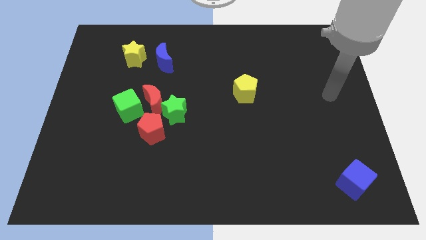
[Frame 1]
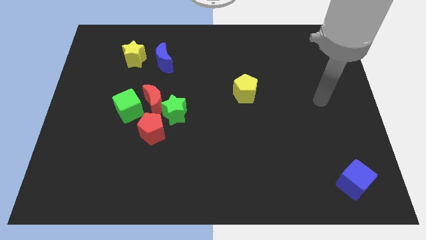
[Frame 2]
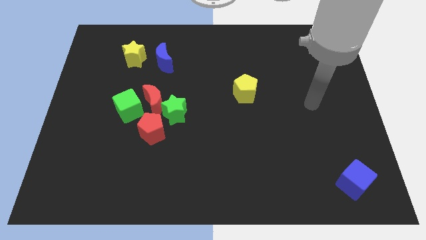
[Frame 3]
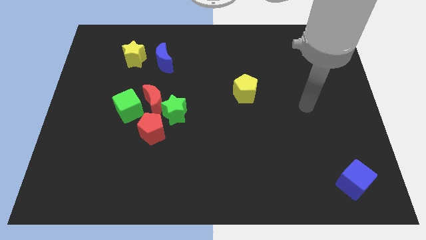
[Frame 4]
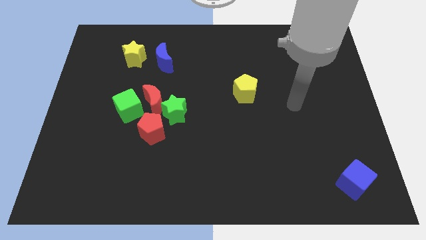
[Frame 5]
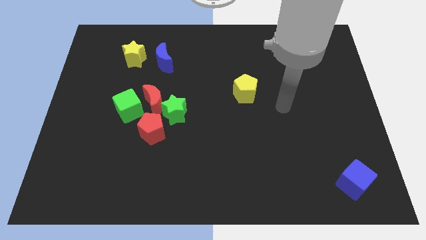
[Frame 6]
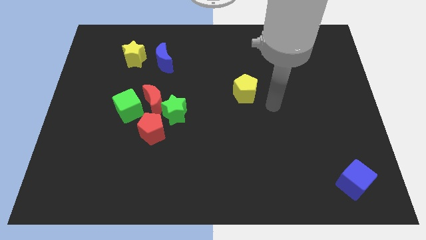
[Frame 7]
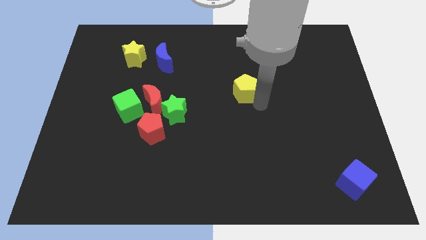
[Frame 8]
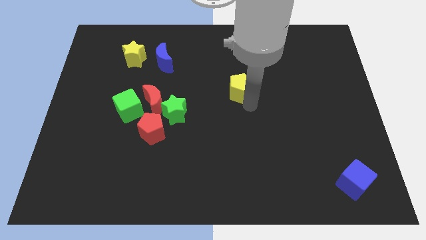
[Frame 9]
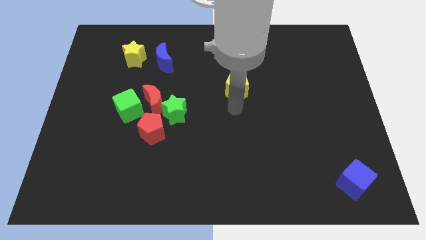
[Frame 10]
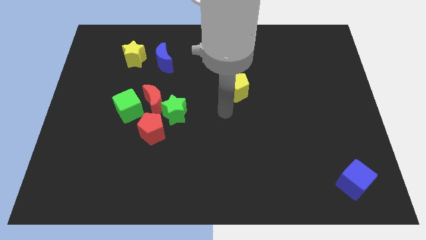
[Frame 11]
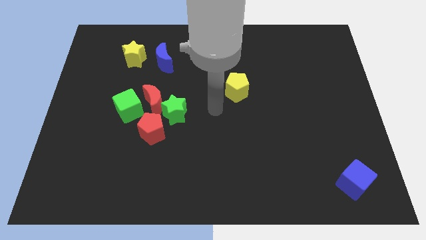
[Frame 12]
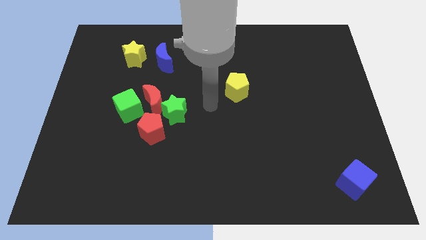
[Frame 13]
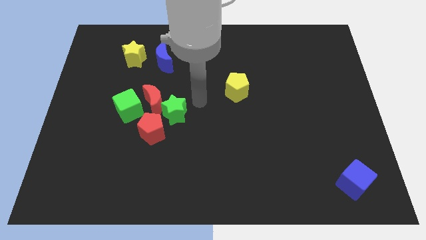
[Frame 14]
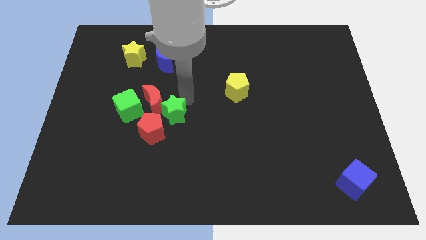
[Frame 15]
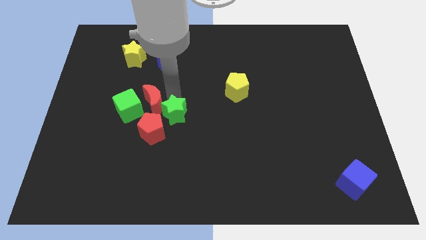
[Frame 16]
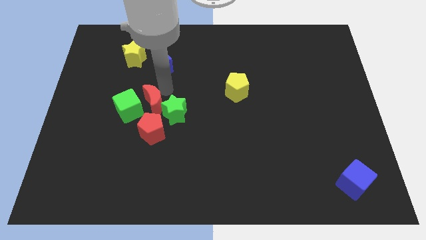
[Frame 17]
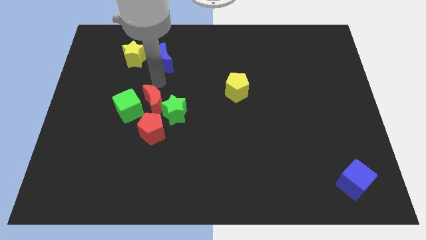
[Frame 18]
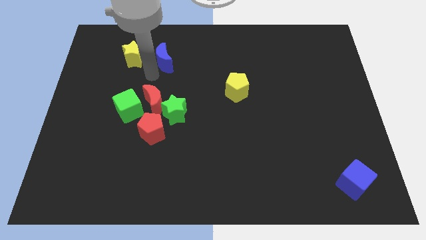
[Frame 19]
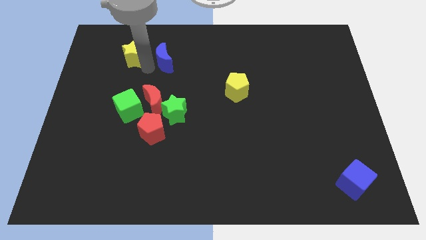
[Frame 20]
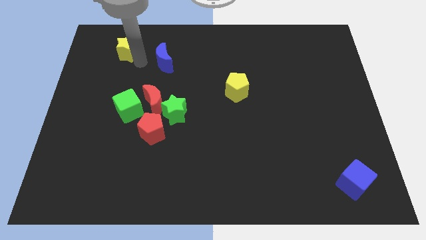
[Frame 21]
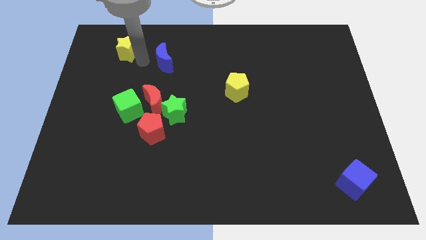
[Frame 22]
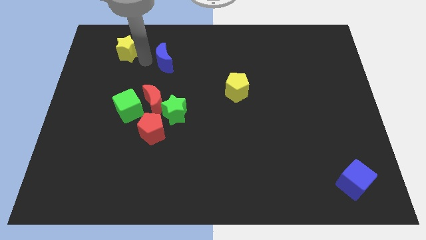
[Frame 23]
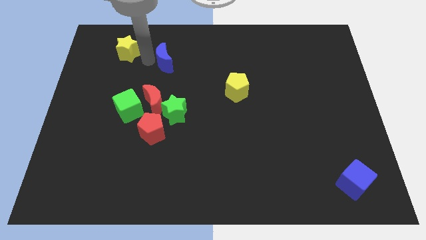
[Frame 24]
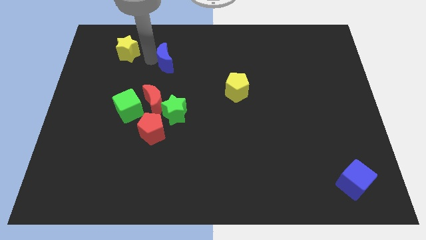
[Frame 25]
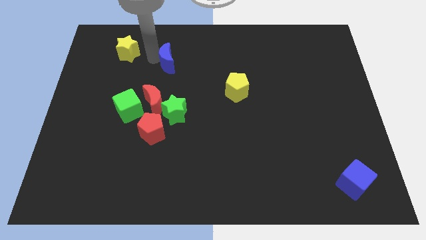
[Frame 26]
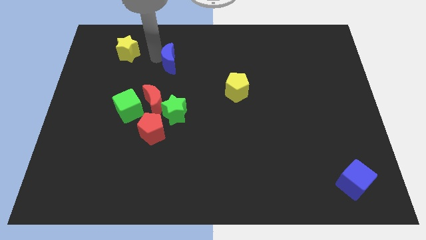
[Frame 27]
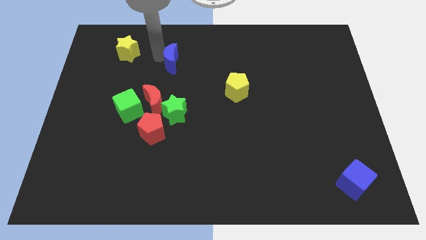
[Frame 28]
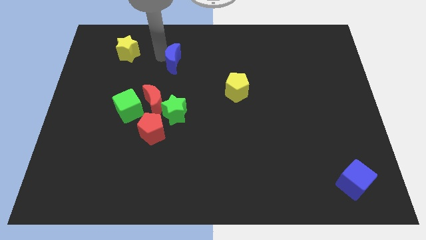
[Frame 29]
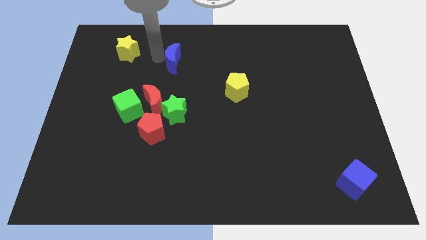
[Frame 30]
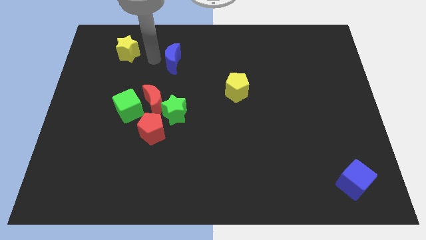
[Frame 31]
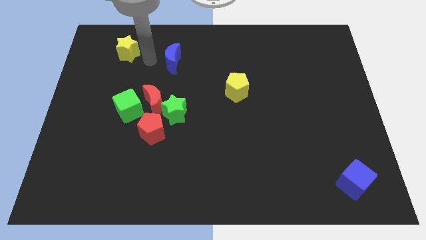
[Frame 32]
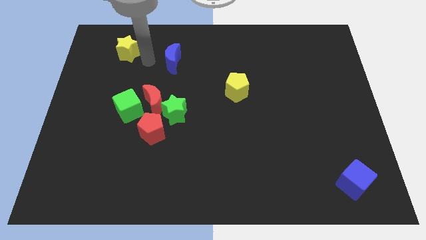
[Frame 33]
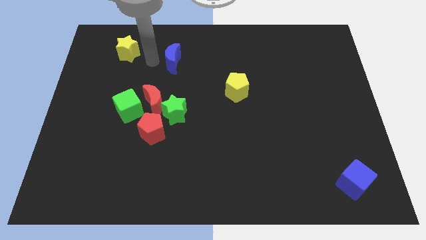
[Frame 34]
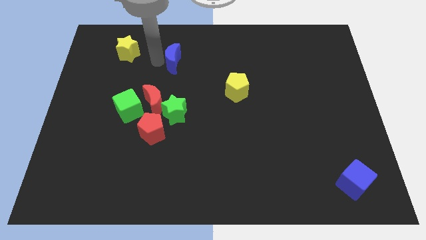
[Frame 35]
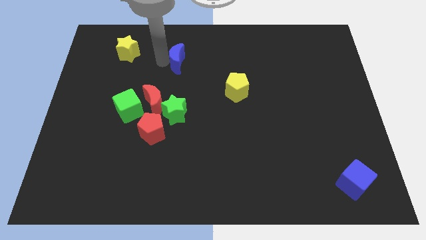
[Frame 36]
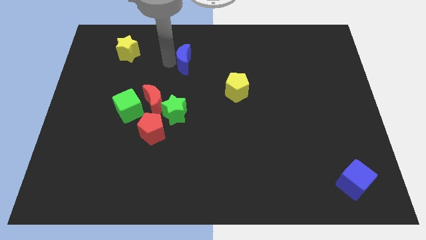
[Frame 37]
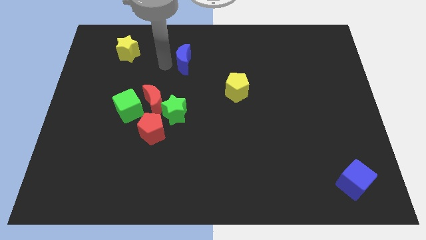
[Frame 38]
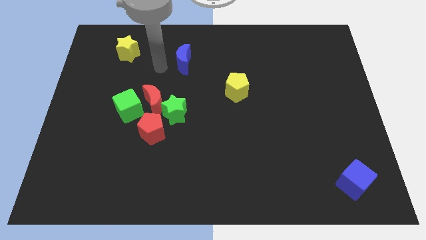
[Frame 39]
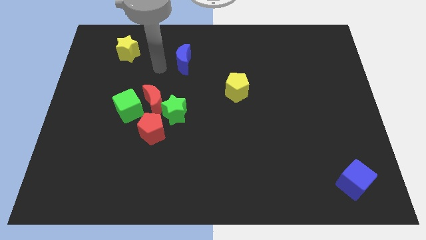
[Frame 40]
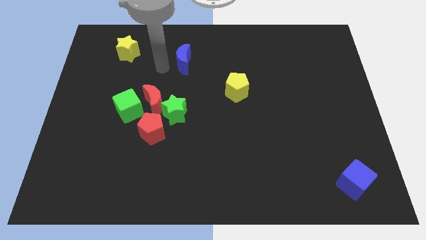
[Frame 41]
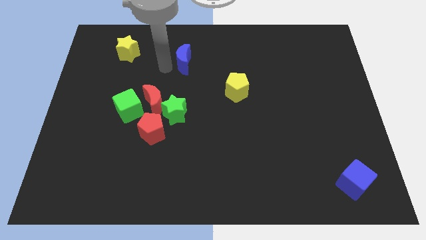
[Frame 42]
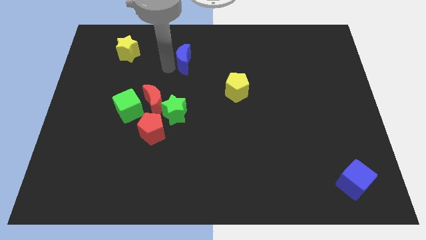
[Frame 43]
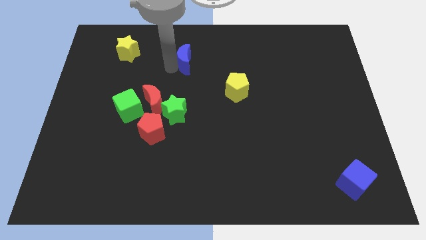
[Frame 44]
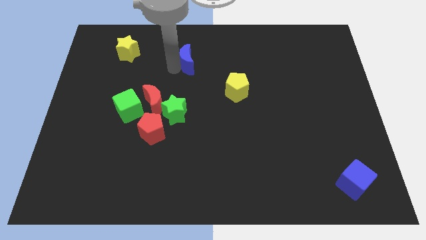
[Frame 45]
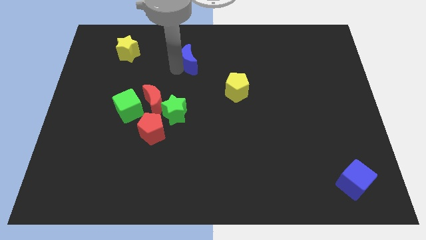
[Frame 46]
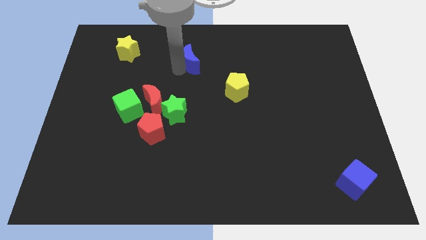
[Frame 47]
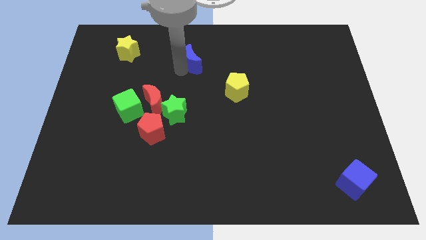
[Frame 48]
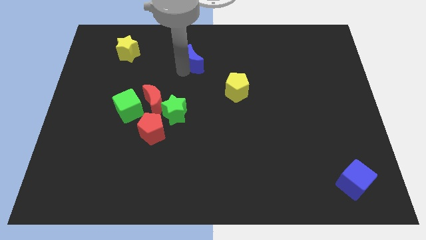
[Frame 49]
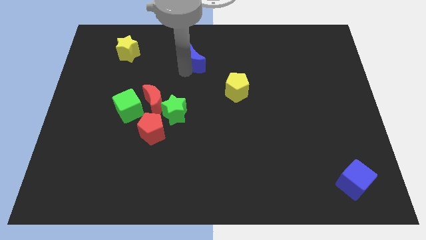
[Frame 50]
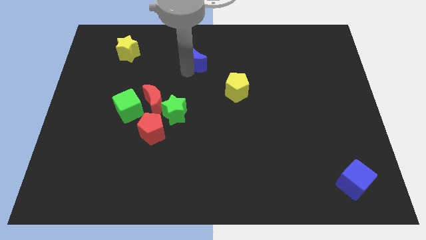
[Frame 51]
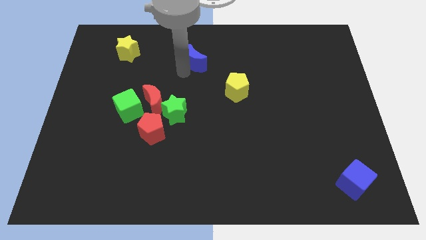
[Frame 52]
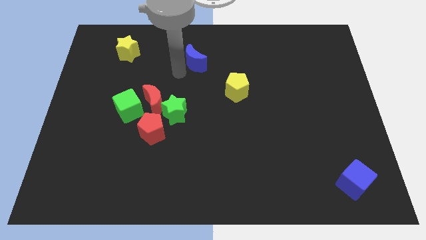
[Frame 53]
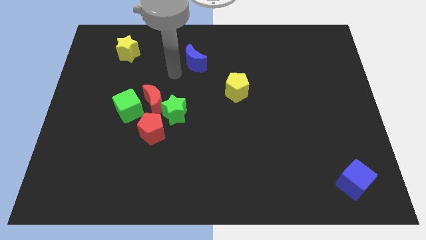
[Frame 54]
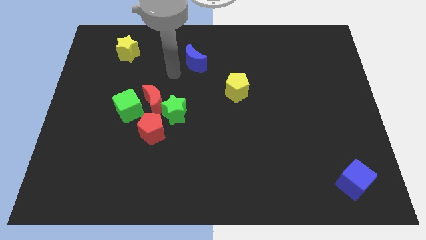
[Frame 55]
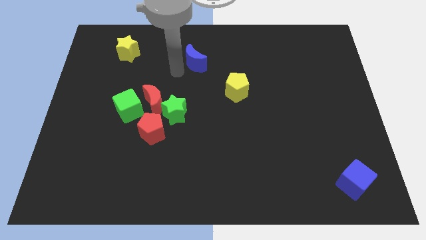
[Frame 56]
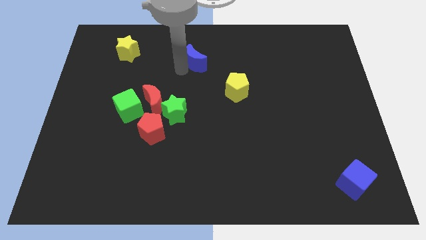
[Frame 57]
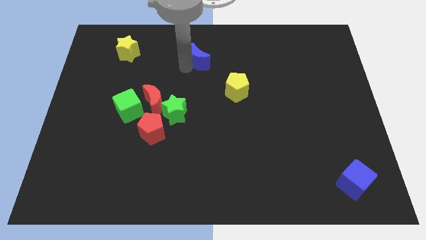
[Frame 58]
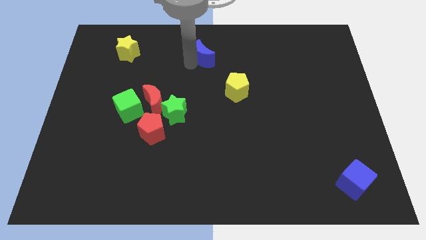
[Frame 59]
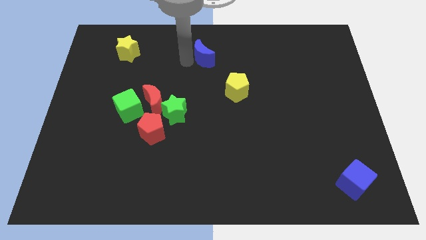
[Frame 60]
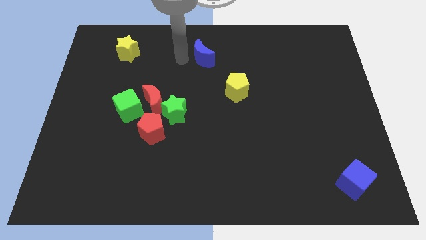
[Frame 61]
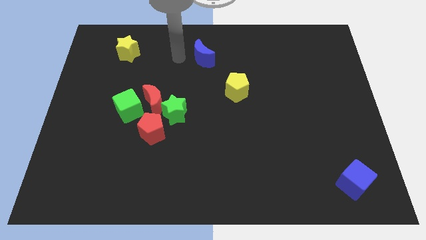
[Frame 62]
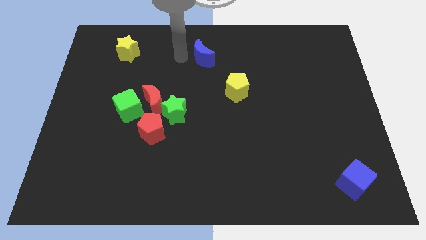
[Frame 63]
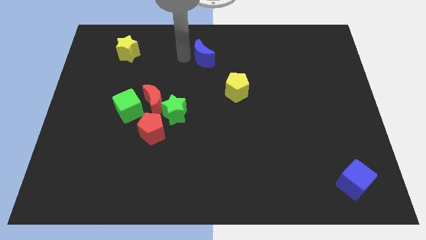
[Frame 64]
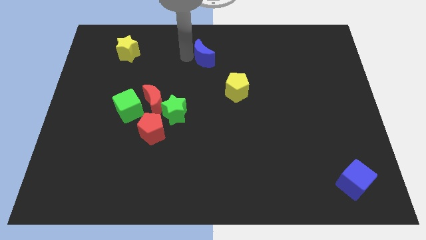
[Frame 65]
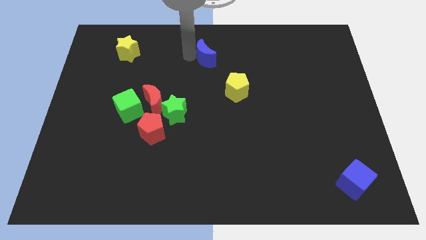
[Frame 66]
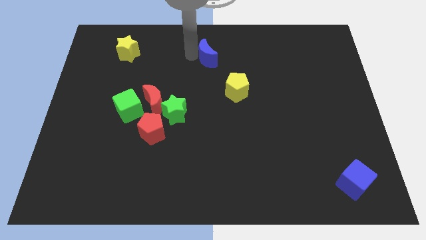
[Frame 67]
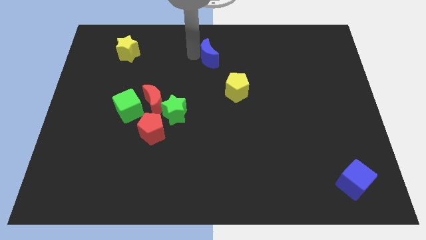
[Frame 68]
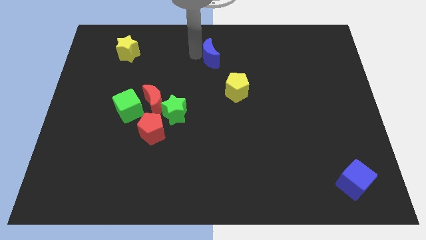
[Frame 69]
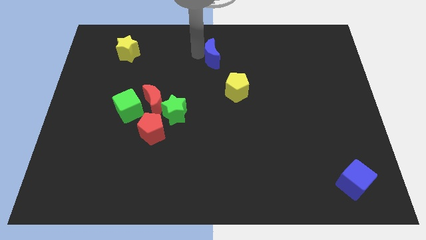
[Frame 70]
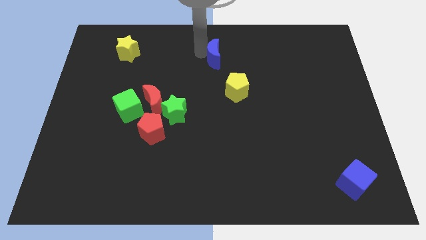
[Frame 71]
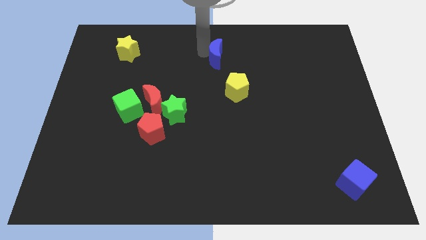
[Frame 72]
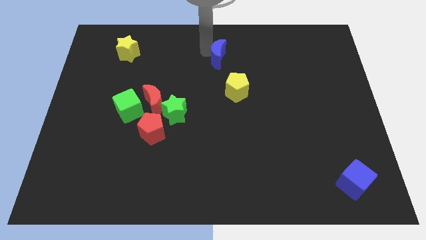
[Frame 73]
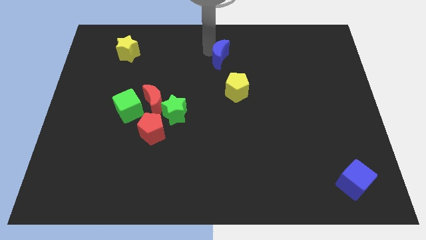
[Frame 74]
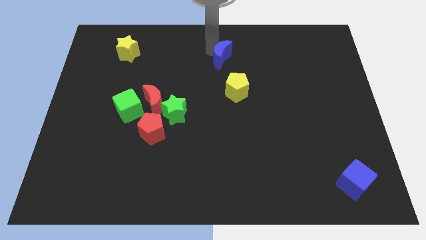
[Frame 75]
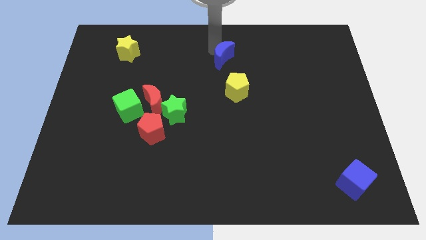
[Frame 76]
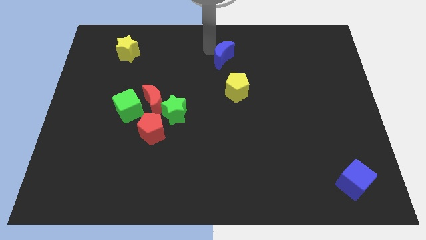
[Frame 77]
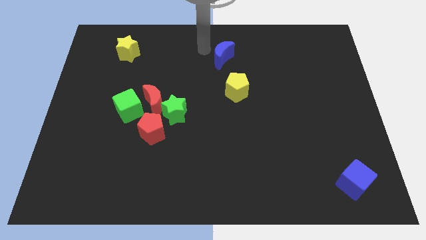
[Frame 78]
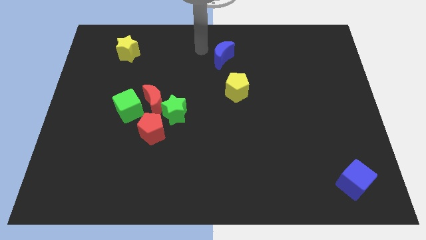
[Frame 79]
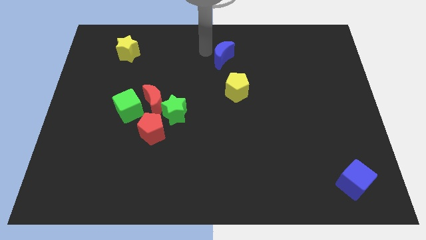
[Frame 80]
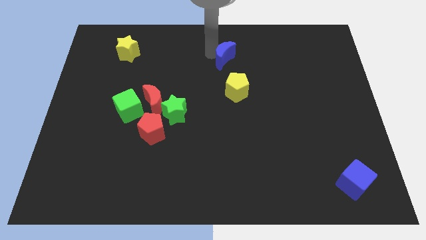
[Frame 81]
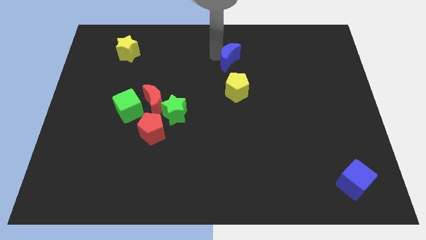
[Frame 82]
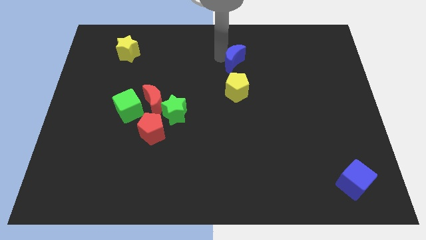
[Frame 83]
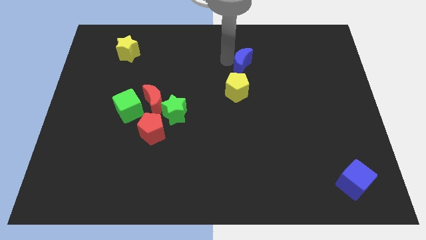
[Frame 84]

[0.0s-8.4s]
slide the blue moon right
